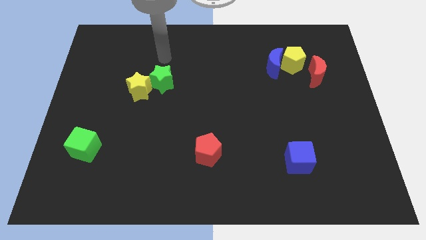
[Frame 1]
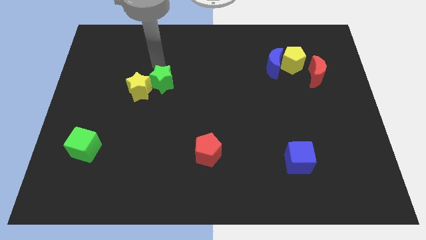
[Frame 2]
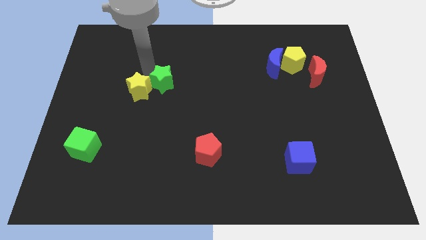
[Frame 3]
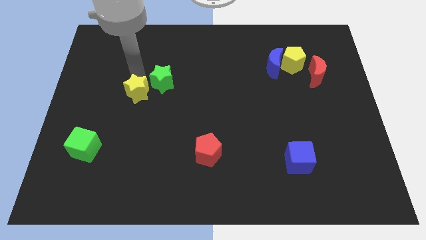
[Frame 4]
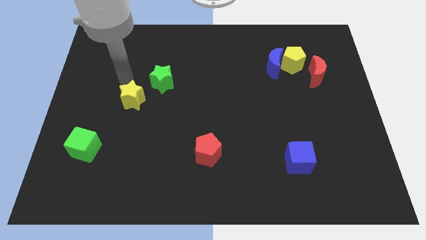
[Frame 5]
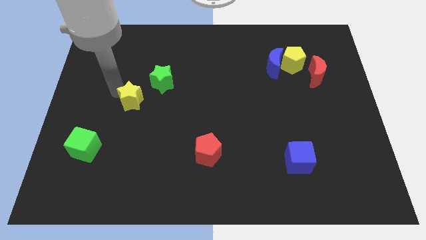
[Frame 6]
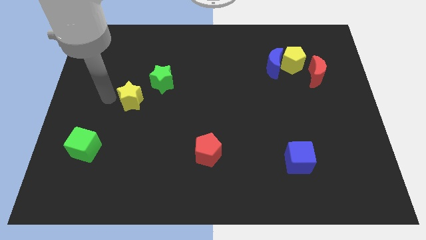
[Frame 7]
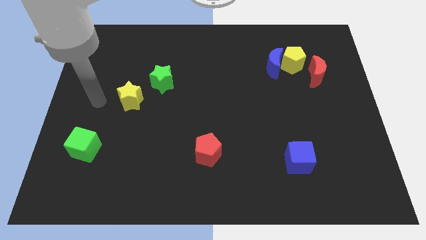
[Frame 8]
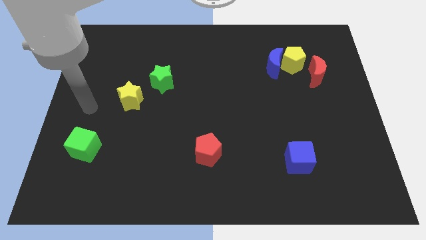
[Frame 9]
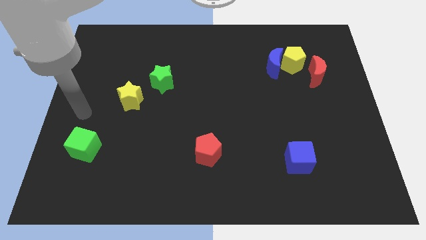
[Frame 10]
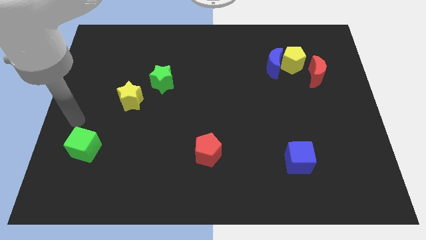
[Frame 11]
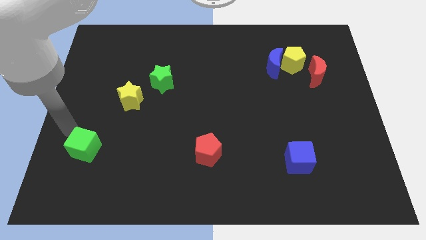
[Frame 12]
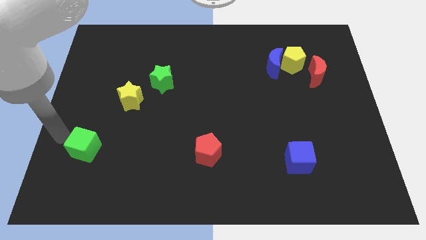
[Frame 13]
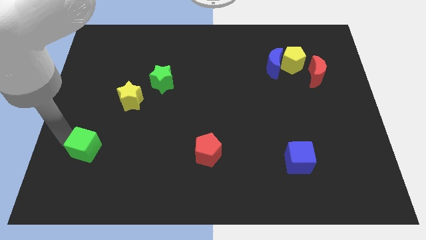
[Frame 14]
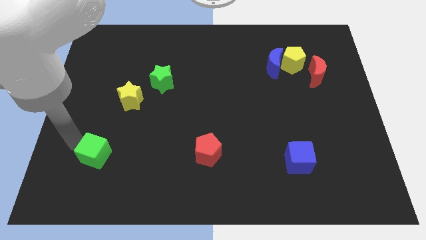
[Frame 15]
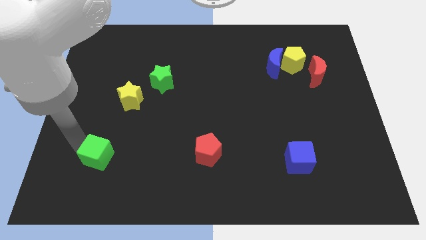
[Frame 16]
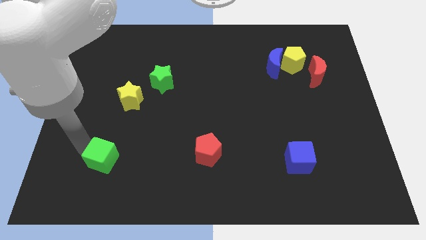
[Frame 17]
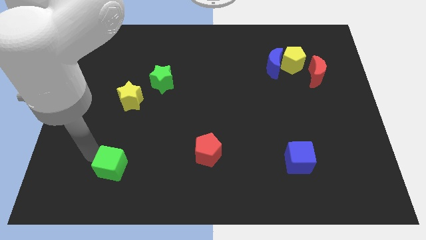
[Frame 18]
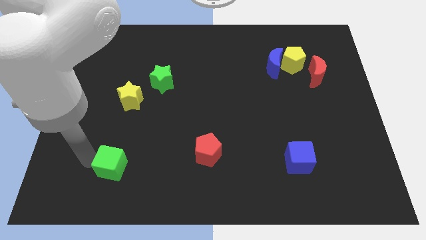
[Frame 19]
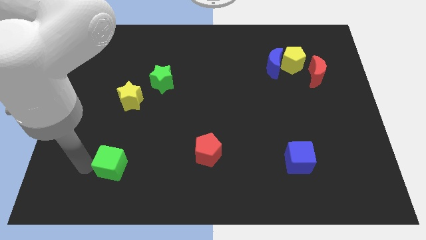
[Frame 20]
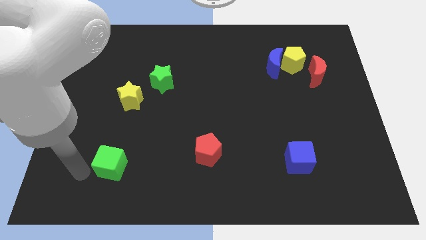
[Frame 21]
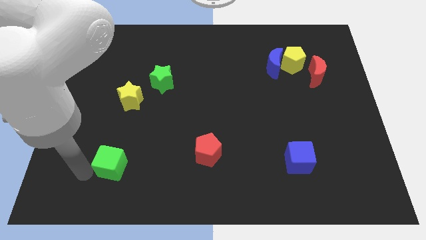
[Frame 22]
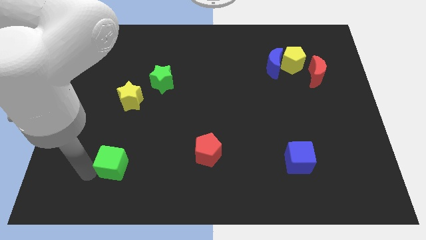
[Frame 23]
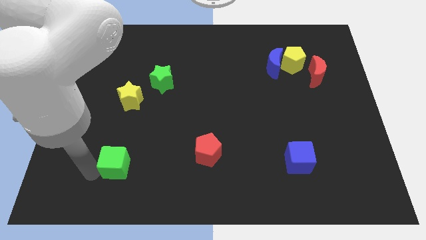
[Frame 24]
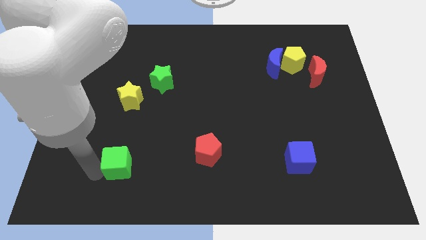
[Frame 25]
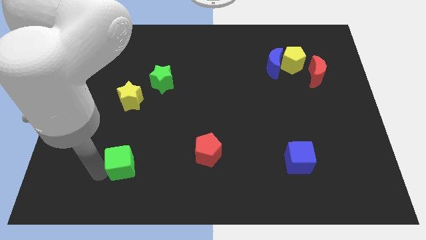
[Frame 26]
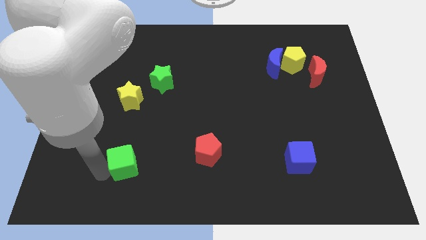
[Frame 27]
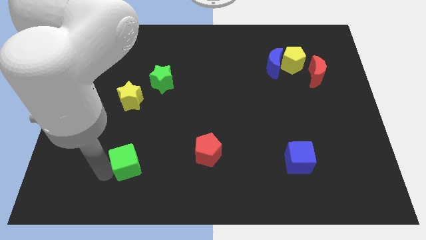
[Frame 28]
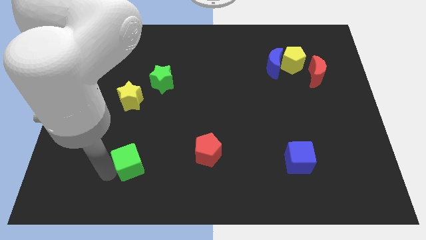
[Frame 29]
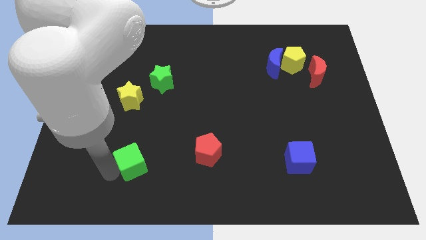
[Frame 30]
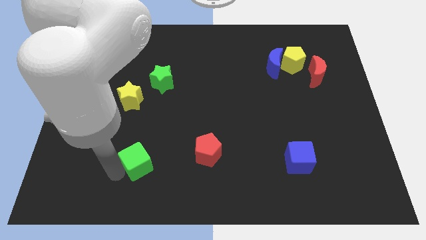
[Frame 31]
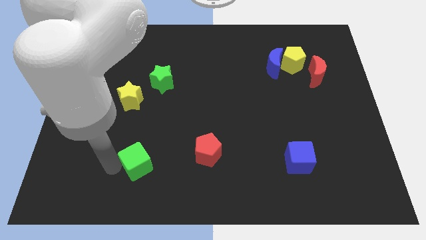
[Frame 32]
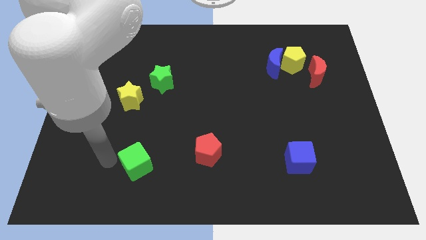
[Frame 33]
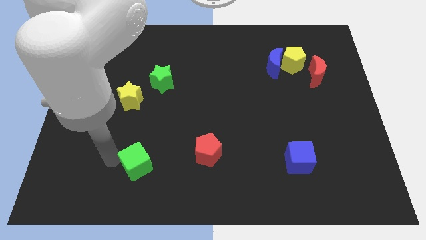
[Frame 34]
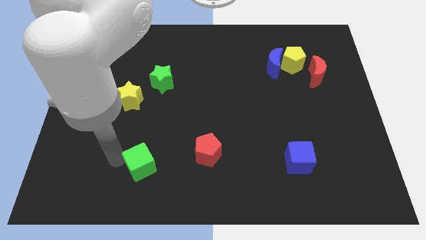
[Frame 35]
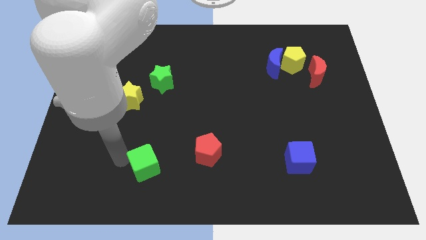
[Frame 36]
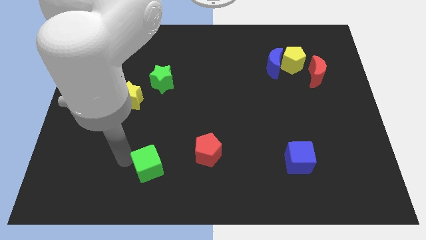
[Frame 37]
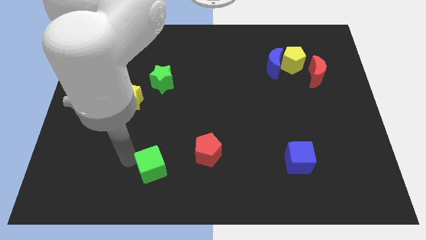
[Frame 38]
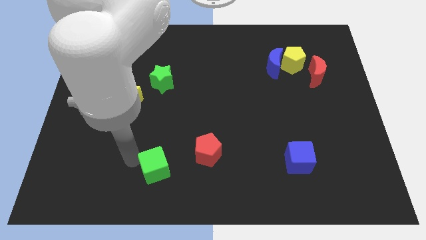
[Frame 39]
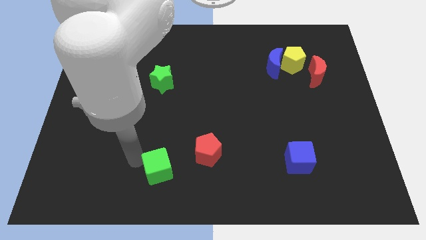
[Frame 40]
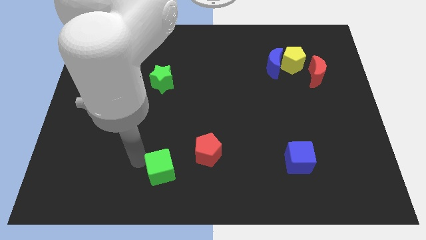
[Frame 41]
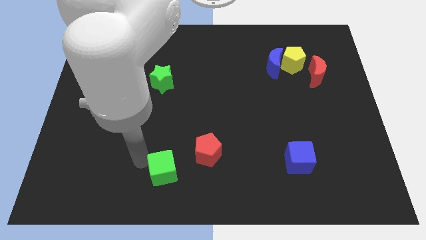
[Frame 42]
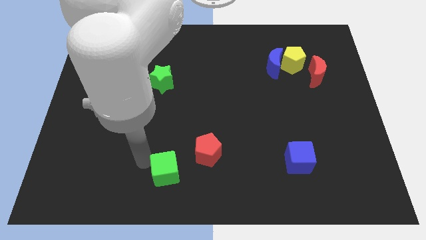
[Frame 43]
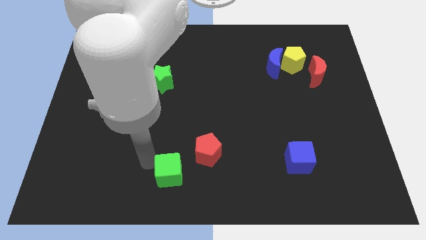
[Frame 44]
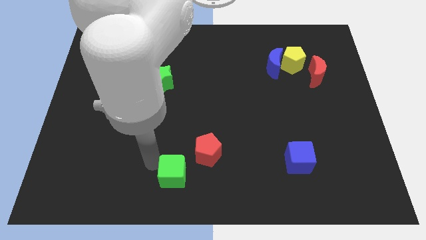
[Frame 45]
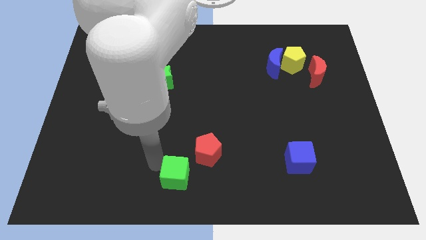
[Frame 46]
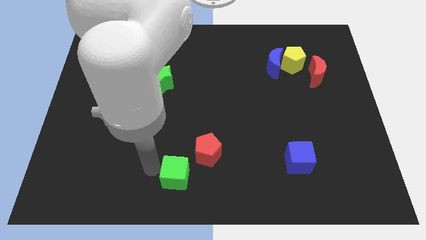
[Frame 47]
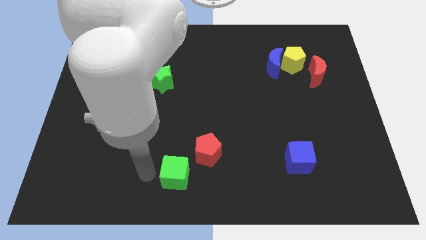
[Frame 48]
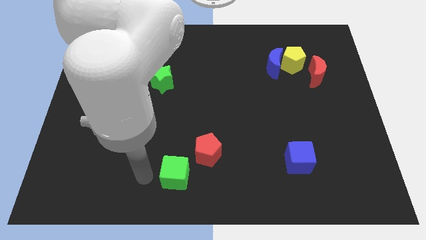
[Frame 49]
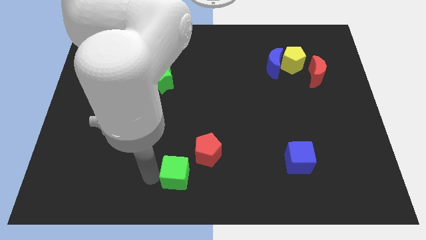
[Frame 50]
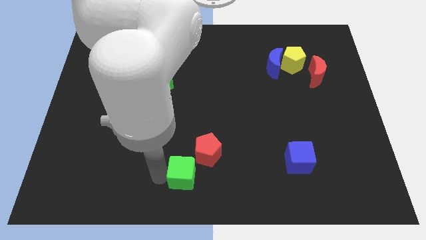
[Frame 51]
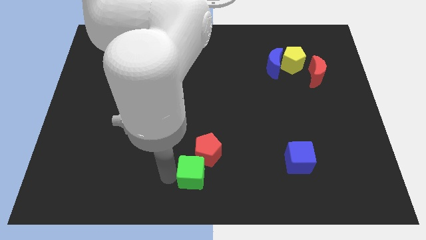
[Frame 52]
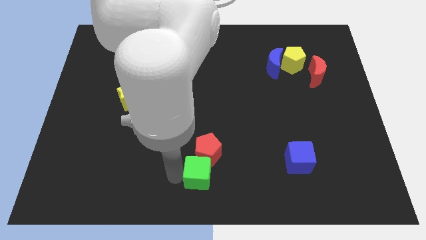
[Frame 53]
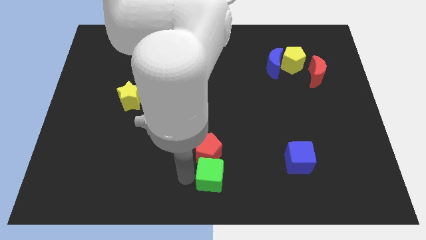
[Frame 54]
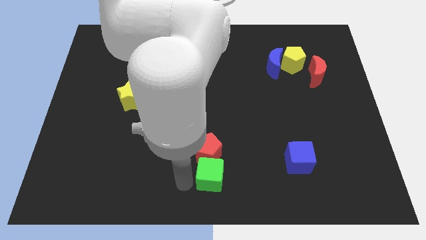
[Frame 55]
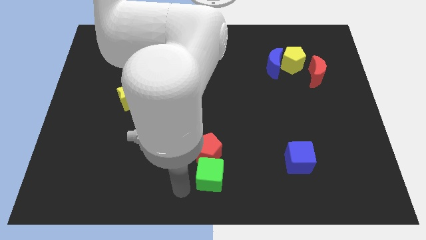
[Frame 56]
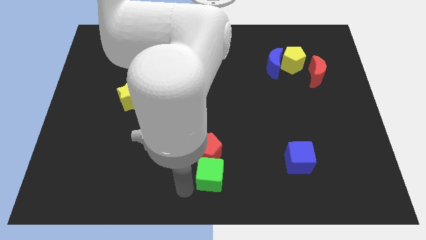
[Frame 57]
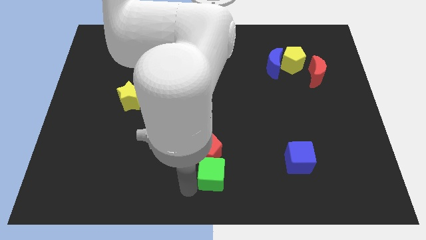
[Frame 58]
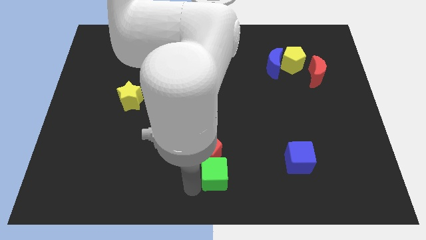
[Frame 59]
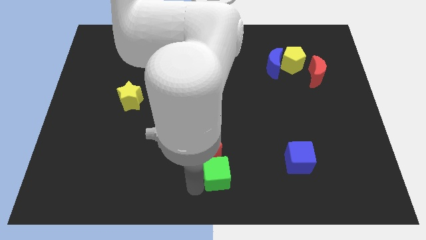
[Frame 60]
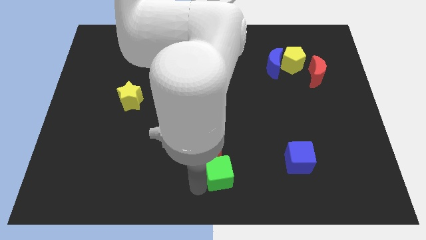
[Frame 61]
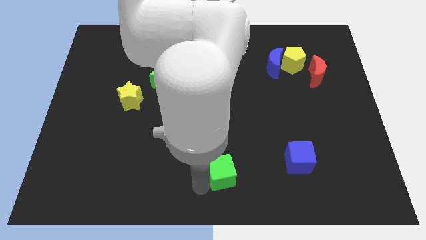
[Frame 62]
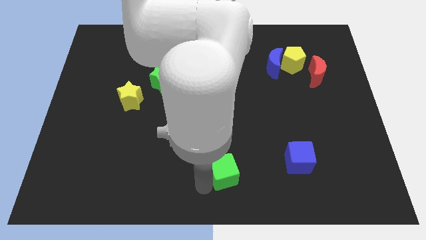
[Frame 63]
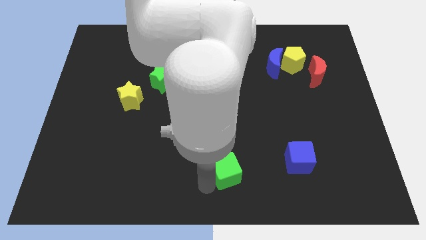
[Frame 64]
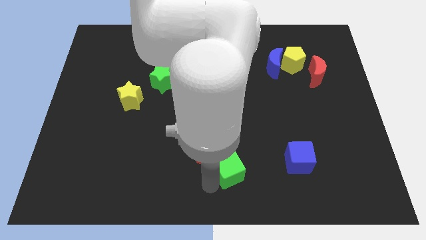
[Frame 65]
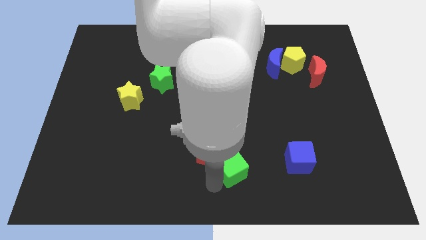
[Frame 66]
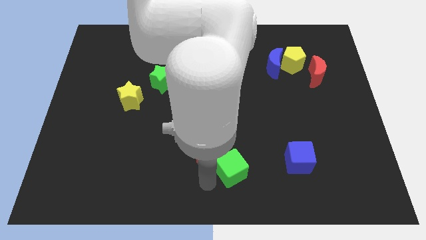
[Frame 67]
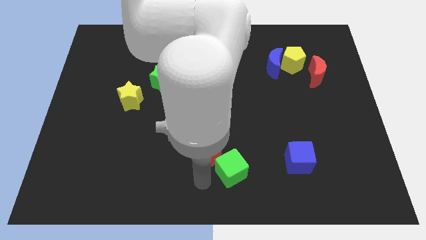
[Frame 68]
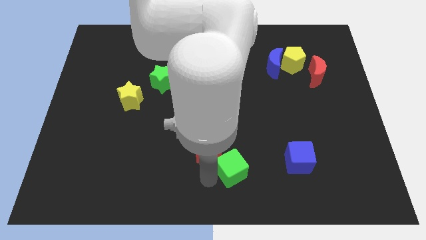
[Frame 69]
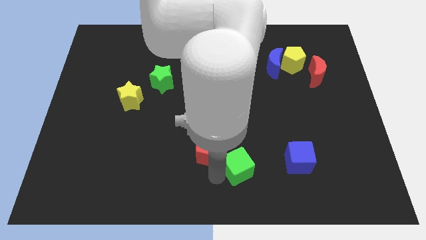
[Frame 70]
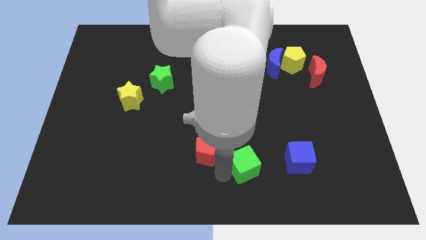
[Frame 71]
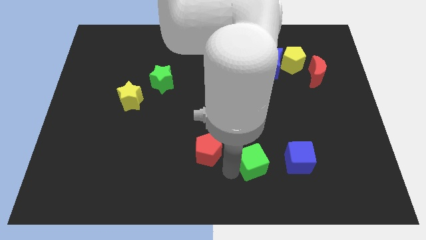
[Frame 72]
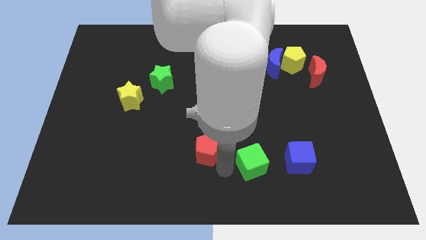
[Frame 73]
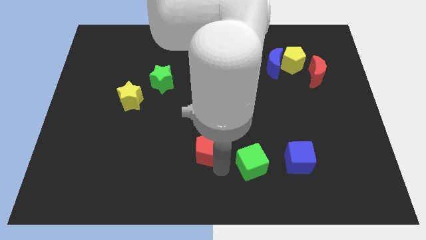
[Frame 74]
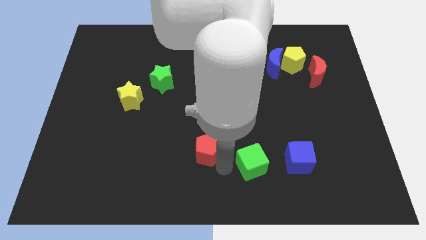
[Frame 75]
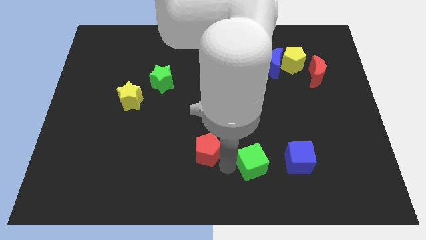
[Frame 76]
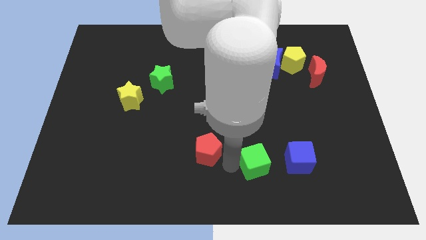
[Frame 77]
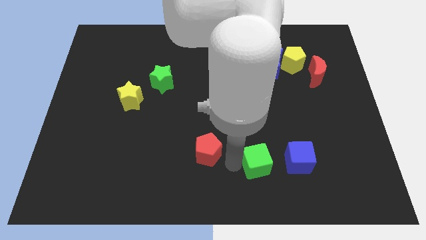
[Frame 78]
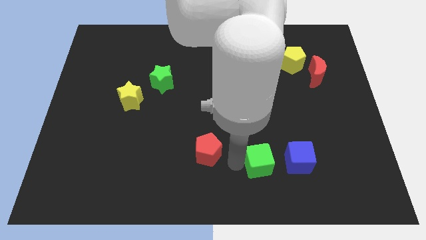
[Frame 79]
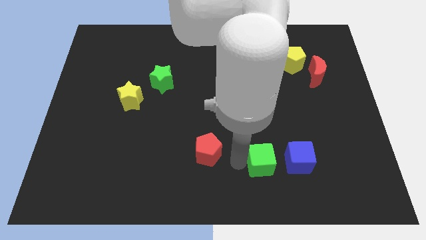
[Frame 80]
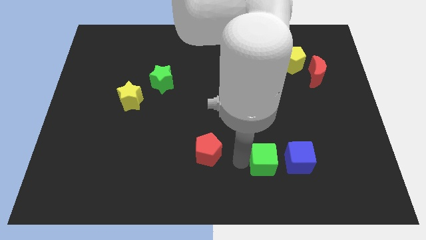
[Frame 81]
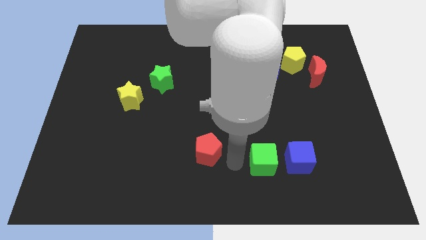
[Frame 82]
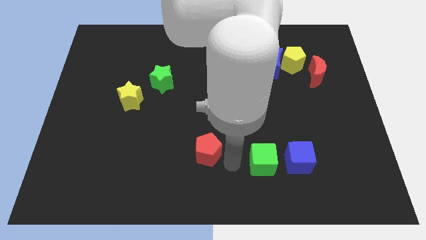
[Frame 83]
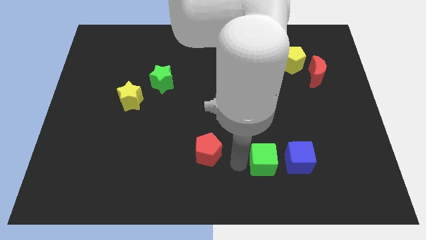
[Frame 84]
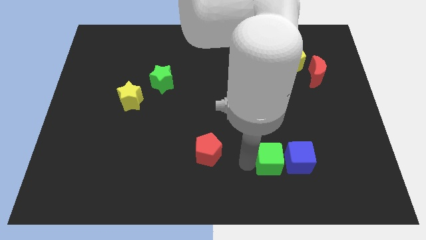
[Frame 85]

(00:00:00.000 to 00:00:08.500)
push the green cube next to the blue cube
